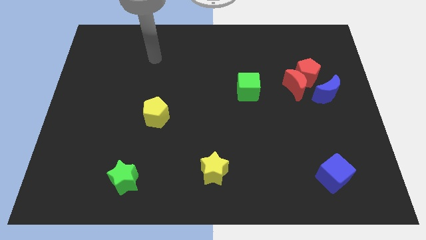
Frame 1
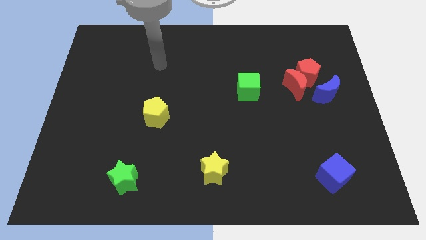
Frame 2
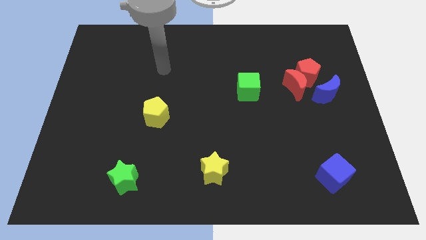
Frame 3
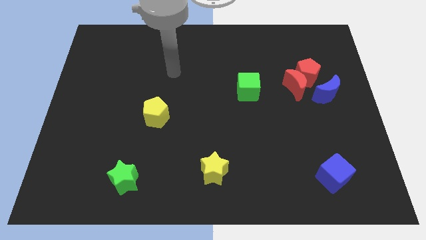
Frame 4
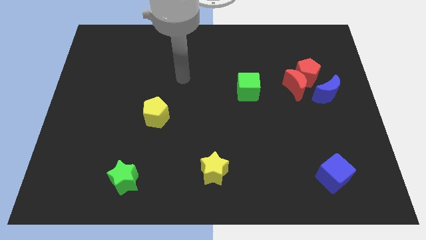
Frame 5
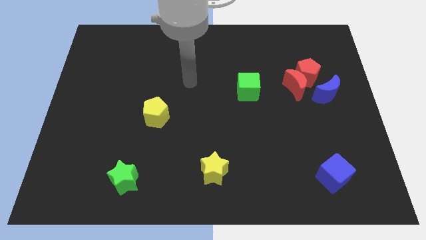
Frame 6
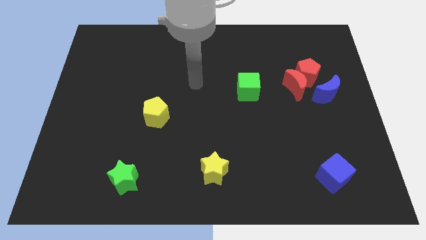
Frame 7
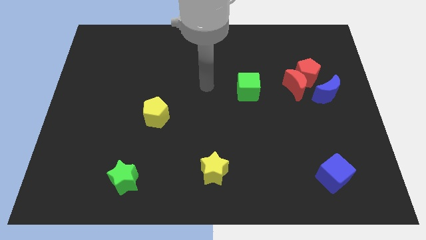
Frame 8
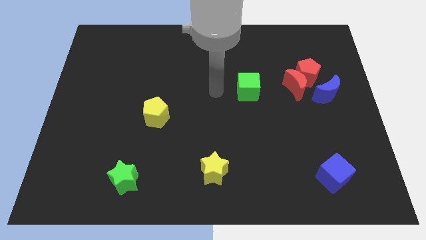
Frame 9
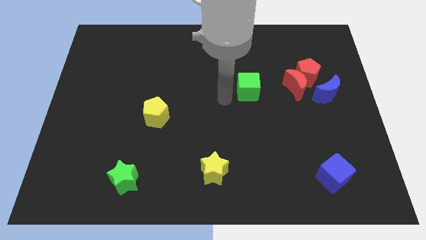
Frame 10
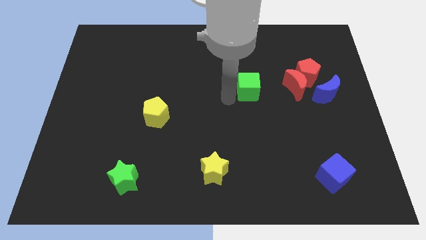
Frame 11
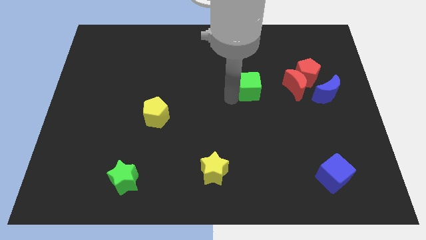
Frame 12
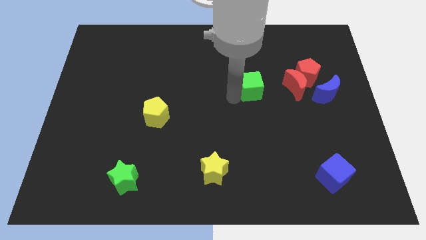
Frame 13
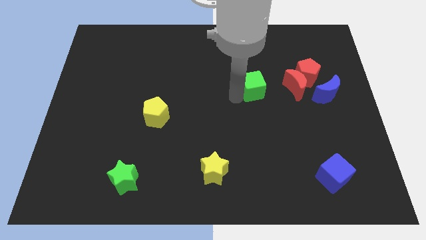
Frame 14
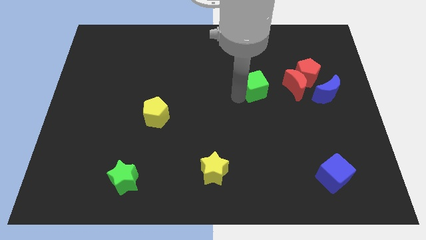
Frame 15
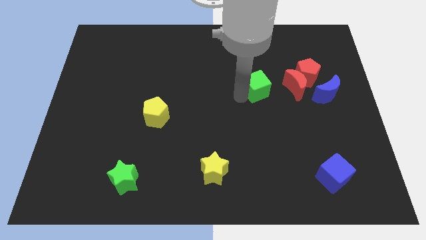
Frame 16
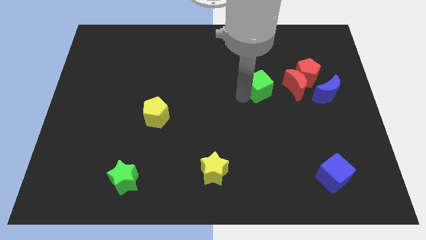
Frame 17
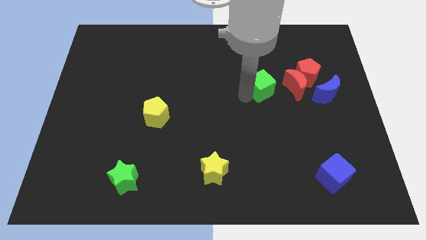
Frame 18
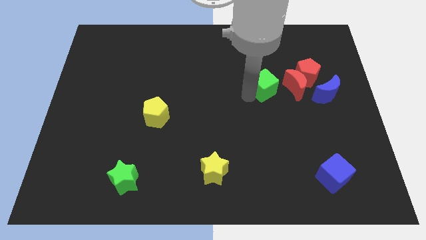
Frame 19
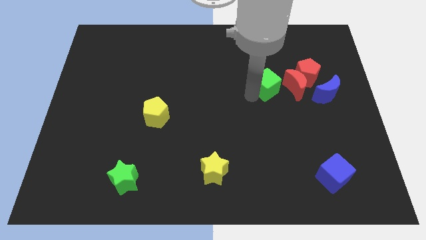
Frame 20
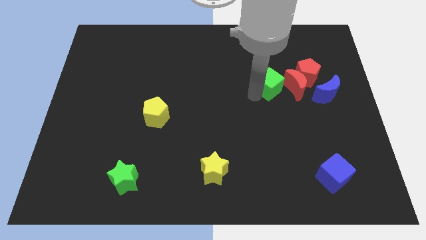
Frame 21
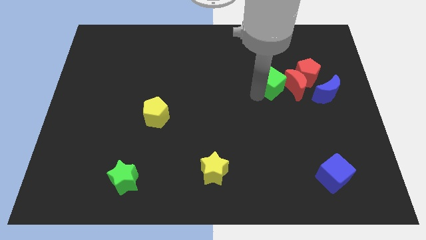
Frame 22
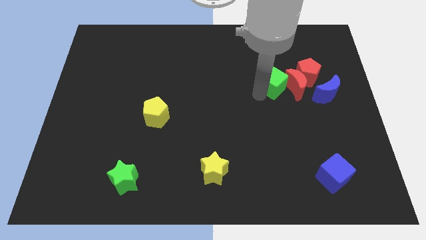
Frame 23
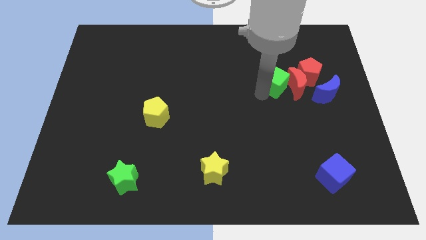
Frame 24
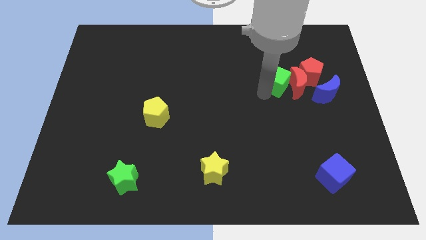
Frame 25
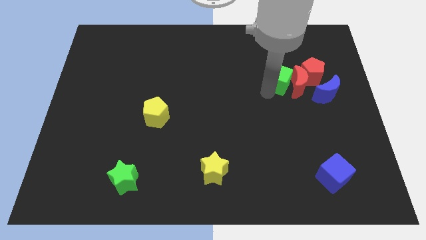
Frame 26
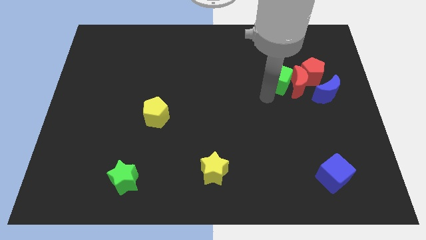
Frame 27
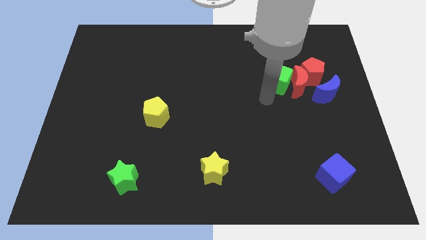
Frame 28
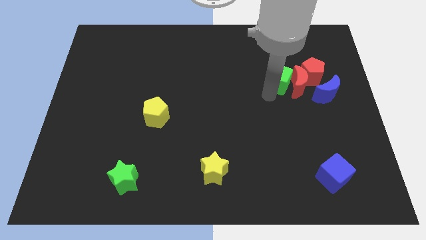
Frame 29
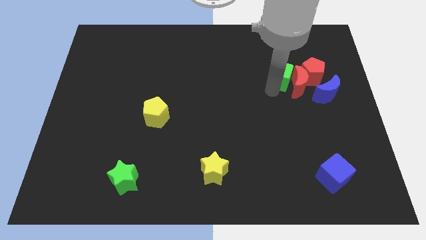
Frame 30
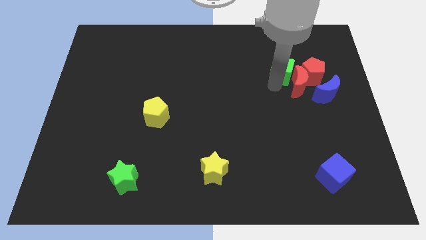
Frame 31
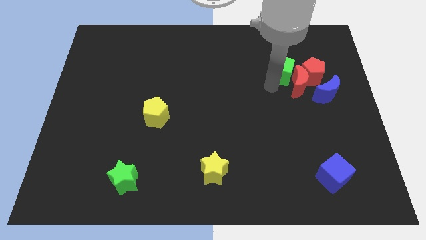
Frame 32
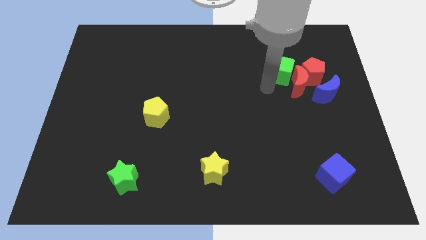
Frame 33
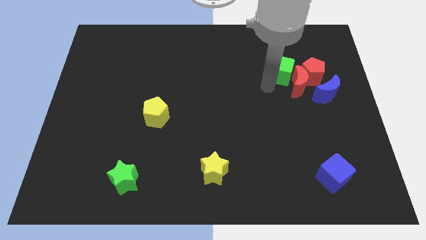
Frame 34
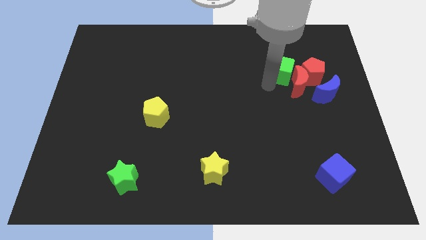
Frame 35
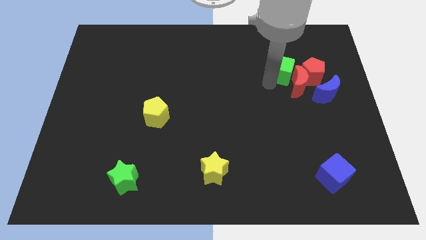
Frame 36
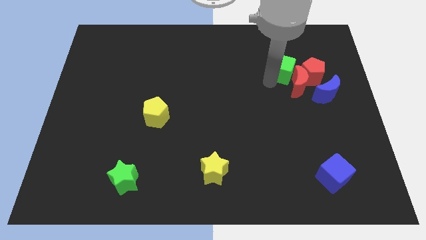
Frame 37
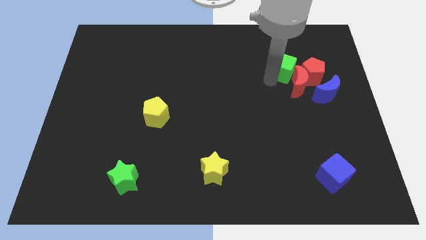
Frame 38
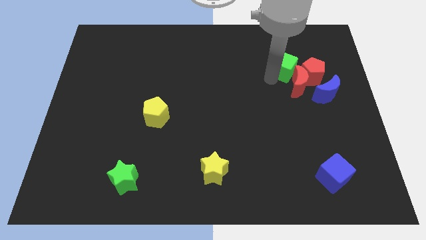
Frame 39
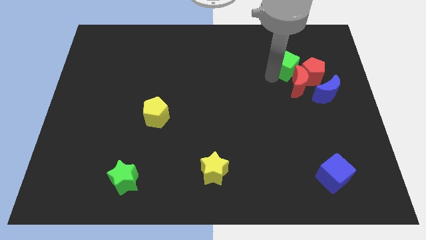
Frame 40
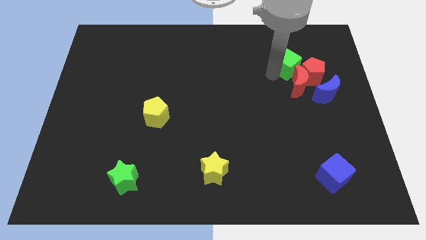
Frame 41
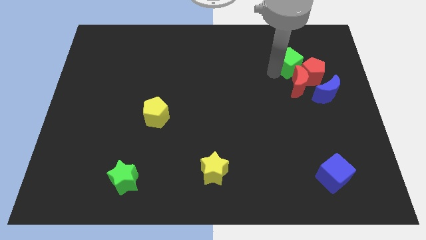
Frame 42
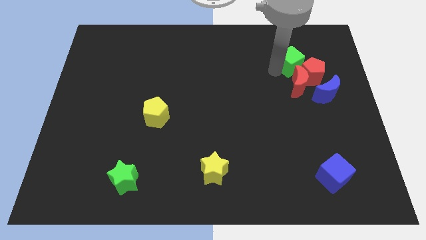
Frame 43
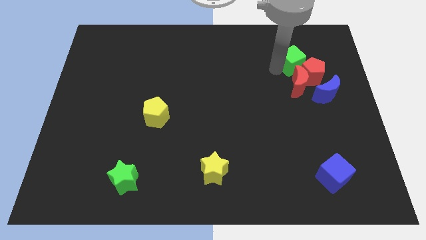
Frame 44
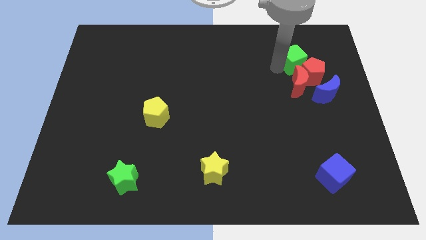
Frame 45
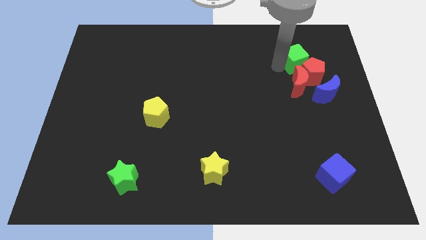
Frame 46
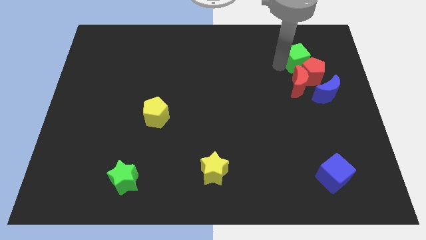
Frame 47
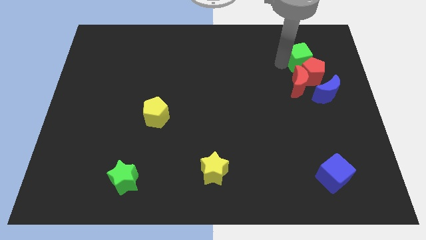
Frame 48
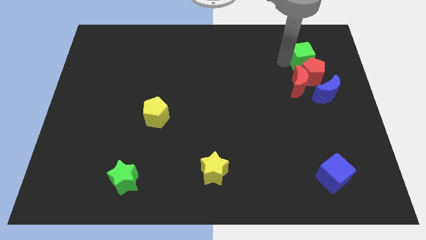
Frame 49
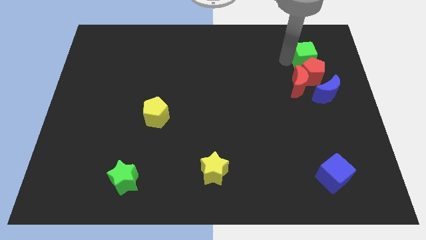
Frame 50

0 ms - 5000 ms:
slide the green cube diagonally up and to the right of the red pentagon

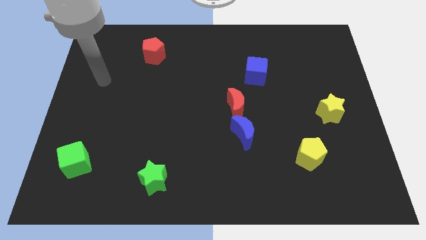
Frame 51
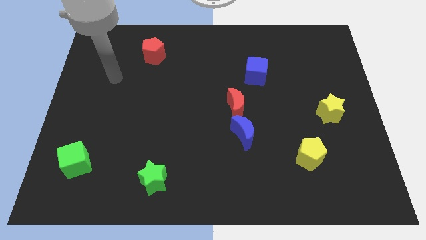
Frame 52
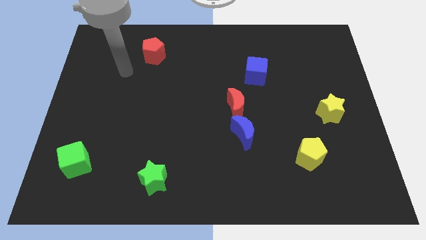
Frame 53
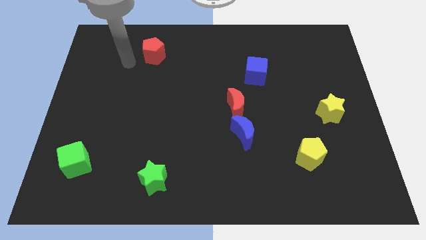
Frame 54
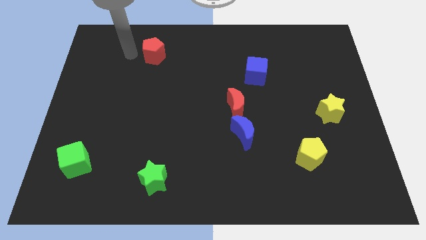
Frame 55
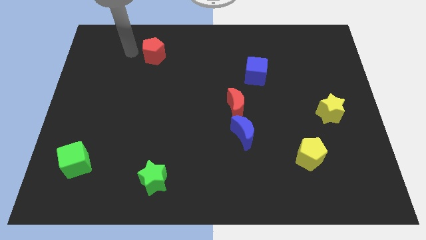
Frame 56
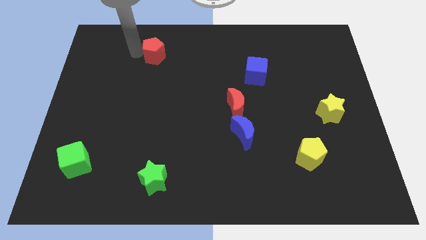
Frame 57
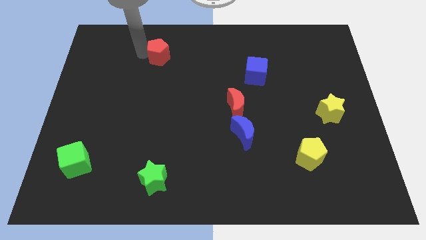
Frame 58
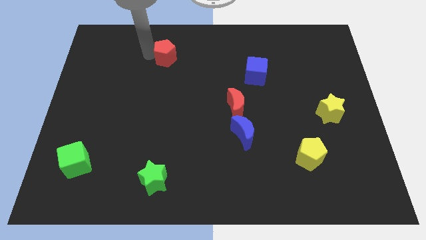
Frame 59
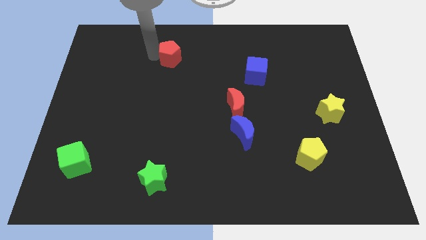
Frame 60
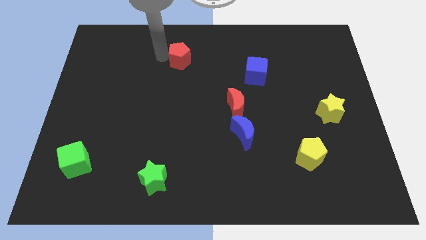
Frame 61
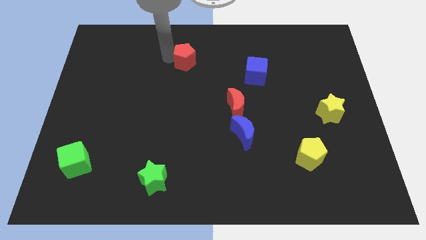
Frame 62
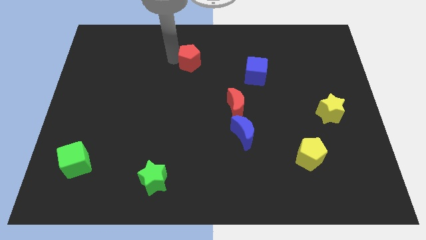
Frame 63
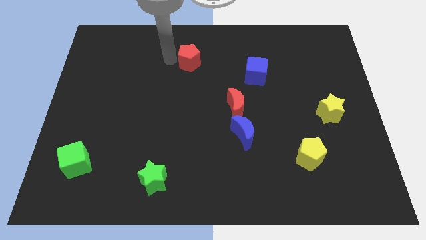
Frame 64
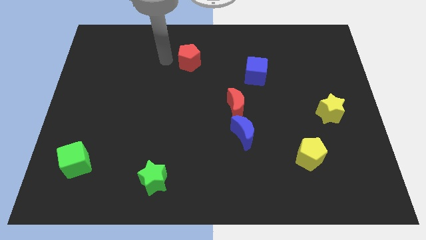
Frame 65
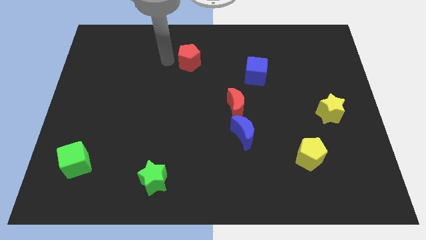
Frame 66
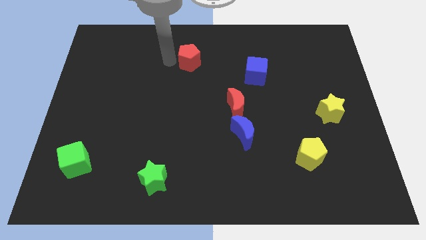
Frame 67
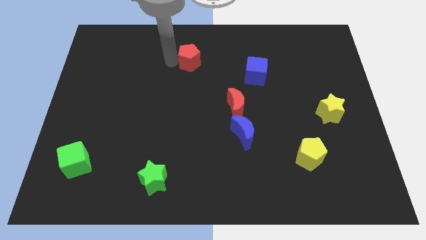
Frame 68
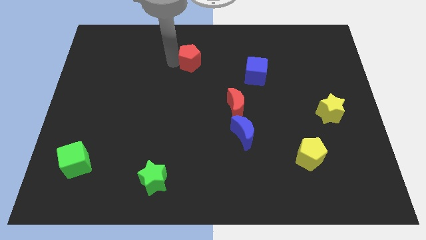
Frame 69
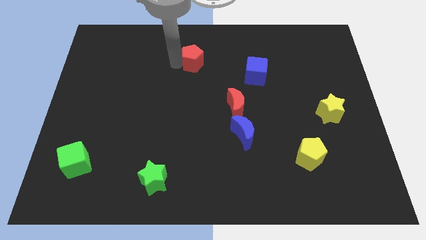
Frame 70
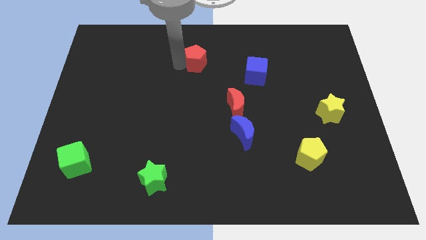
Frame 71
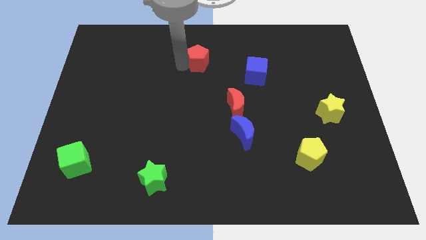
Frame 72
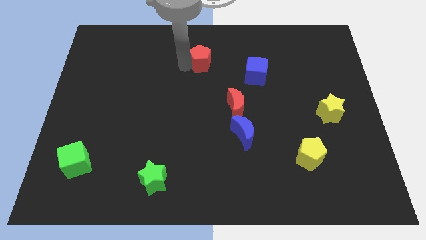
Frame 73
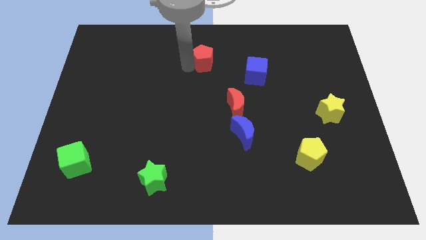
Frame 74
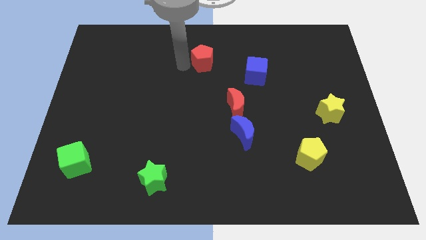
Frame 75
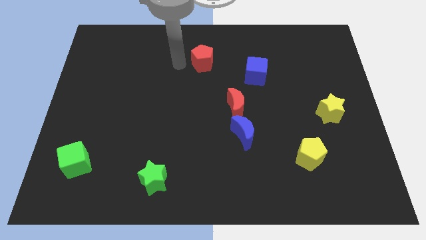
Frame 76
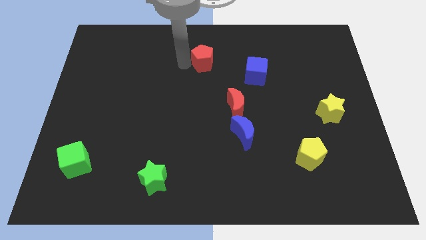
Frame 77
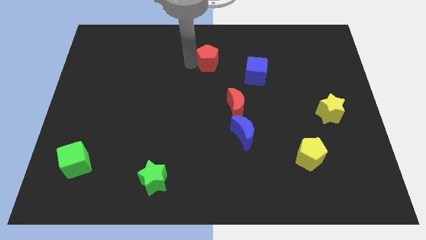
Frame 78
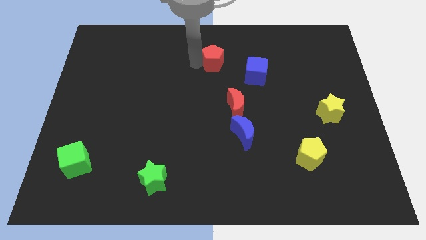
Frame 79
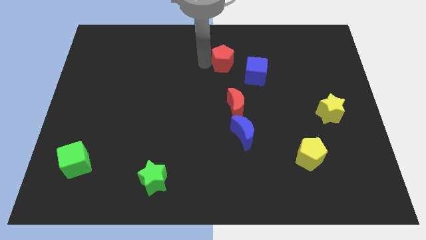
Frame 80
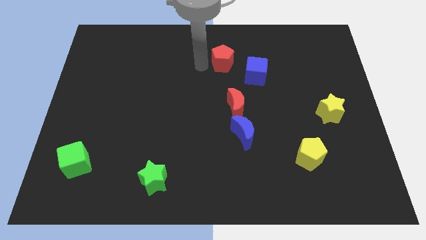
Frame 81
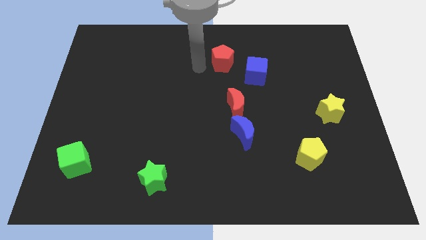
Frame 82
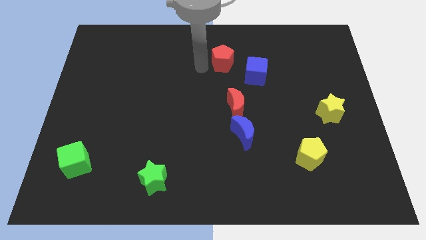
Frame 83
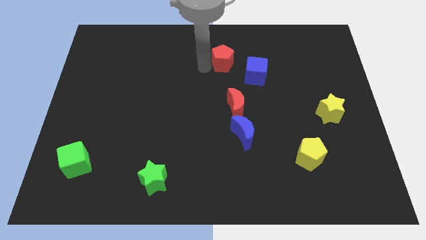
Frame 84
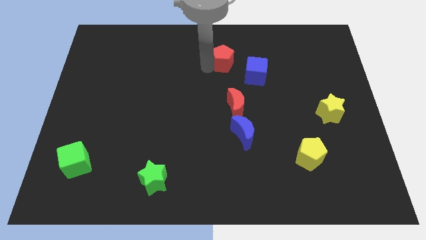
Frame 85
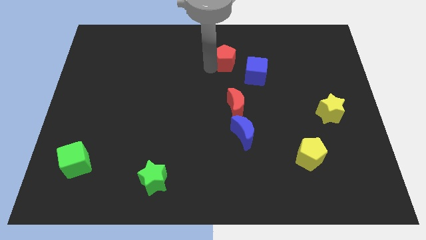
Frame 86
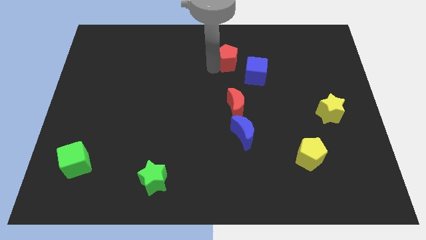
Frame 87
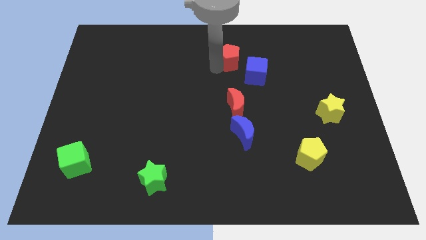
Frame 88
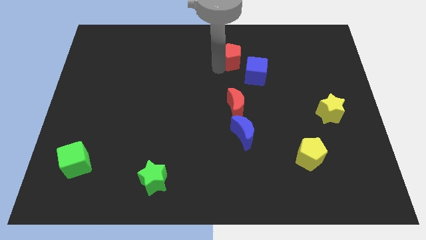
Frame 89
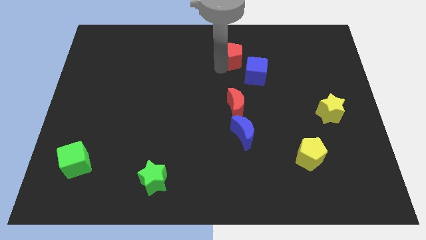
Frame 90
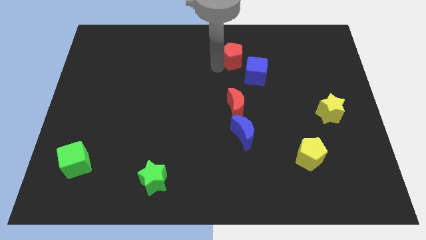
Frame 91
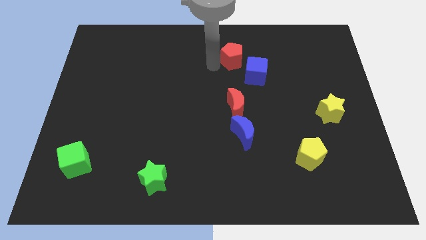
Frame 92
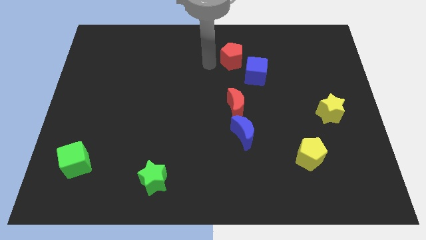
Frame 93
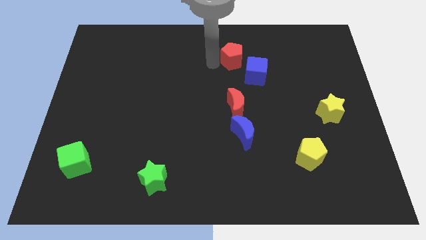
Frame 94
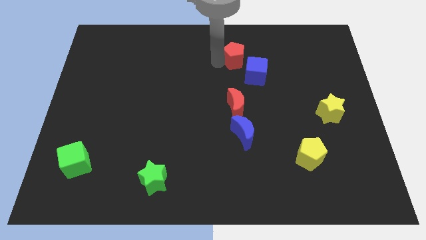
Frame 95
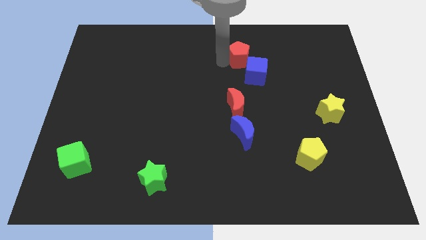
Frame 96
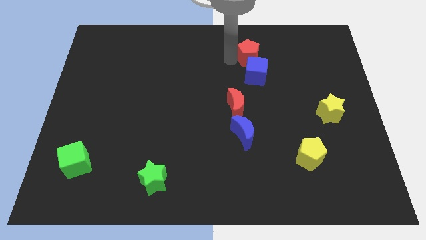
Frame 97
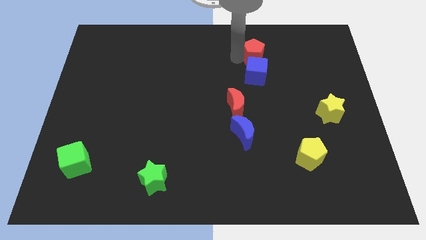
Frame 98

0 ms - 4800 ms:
push the red pentagon diagonally up and to the right of the blue cube
